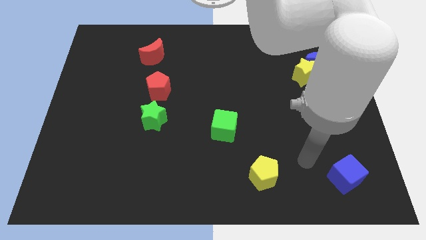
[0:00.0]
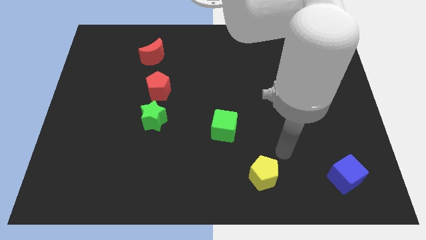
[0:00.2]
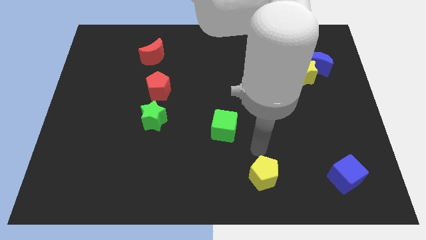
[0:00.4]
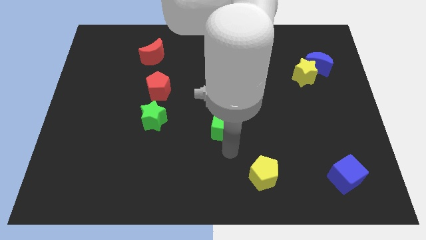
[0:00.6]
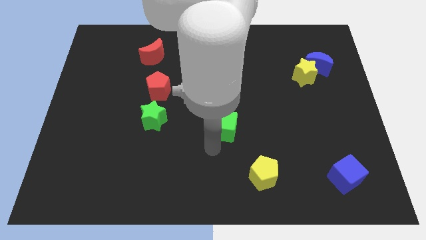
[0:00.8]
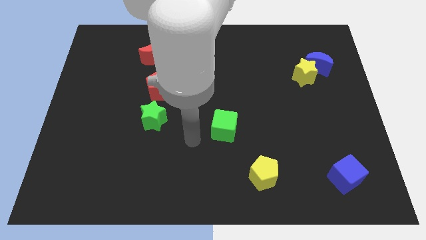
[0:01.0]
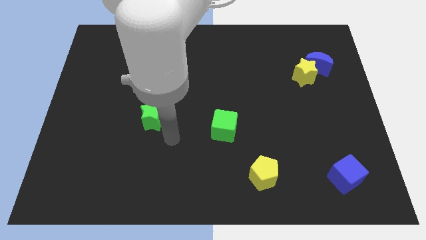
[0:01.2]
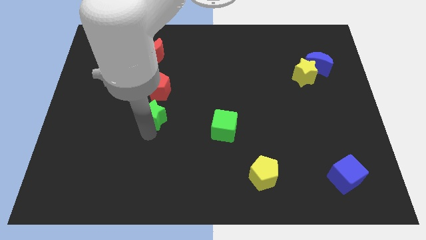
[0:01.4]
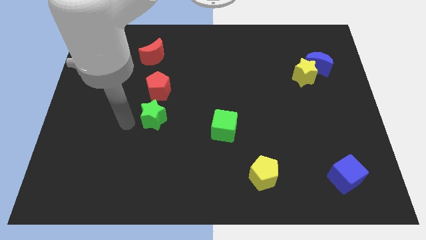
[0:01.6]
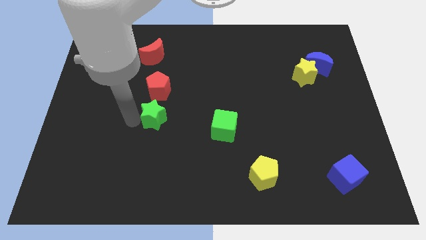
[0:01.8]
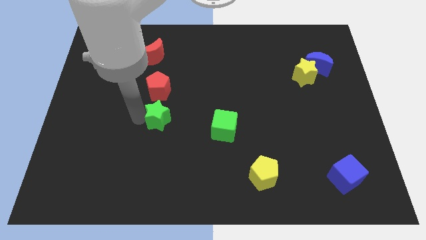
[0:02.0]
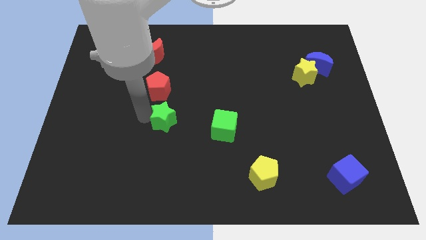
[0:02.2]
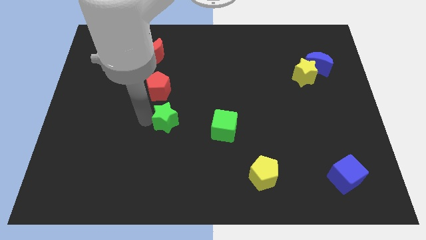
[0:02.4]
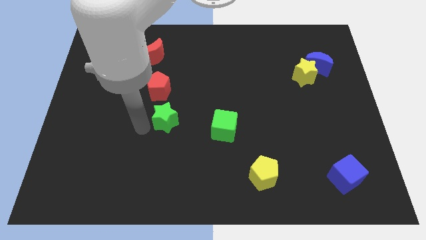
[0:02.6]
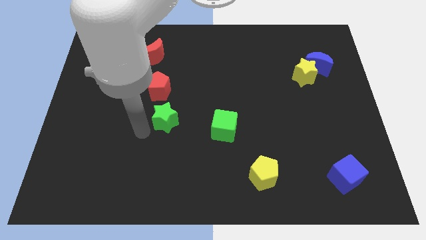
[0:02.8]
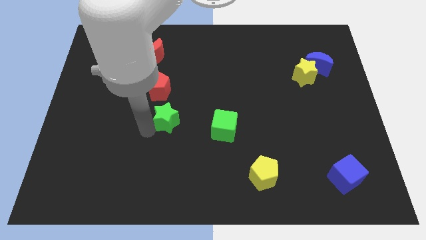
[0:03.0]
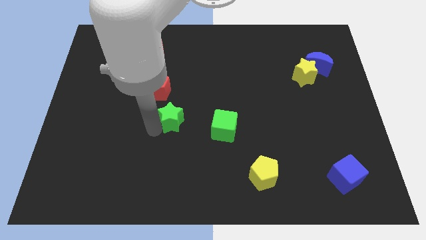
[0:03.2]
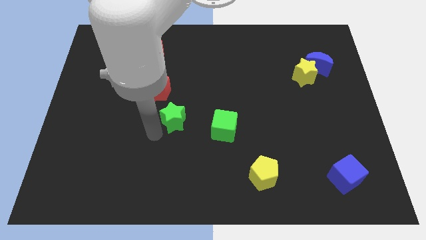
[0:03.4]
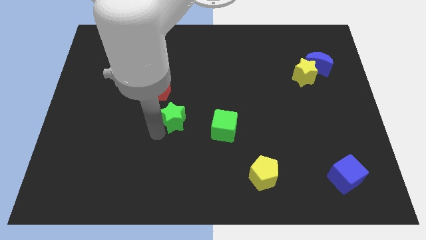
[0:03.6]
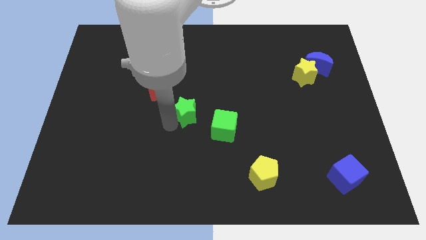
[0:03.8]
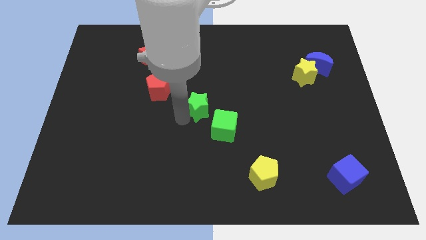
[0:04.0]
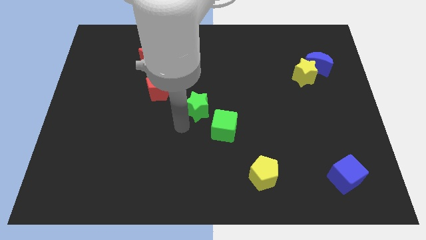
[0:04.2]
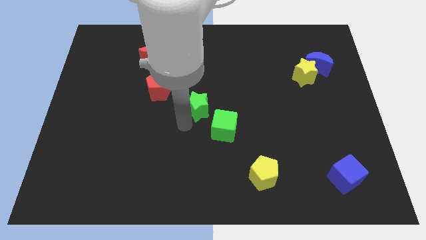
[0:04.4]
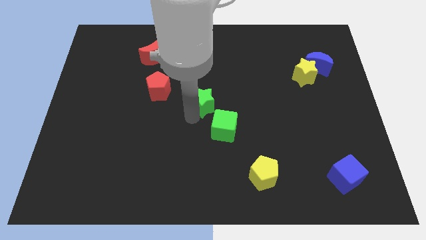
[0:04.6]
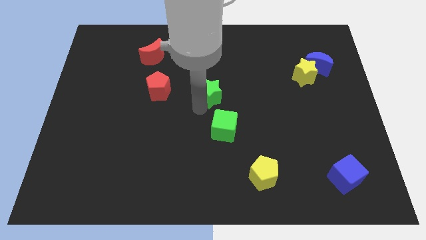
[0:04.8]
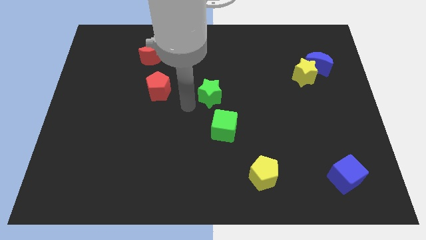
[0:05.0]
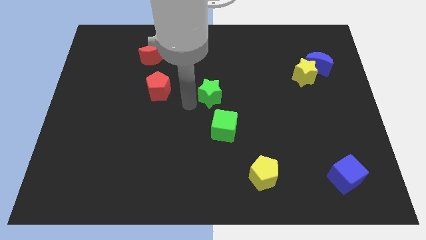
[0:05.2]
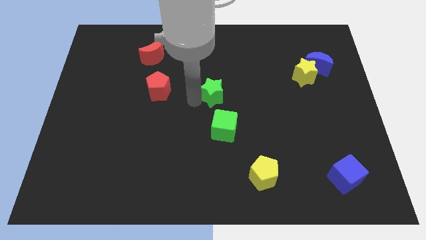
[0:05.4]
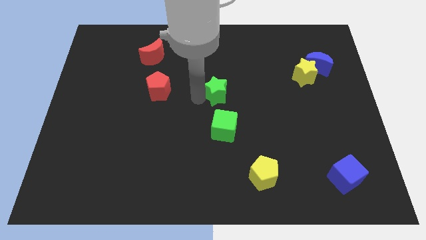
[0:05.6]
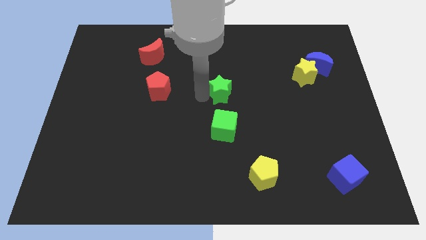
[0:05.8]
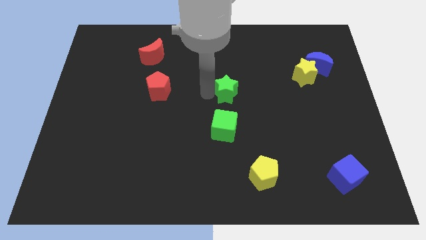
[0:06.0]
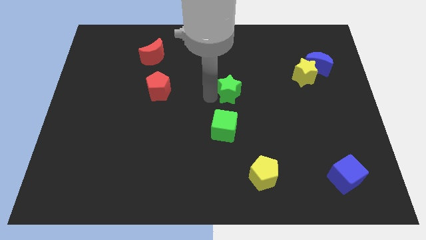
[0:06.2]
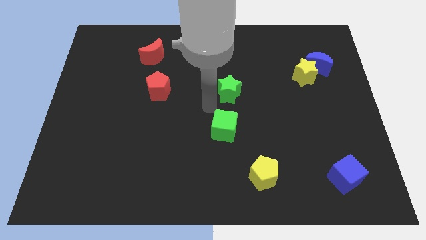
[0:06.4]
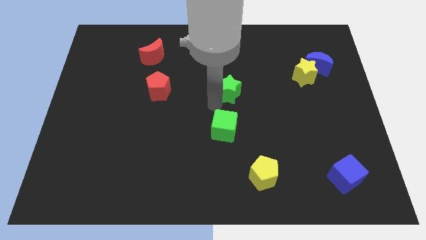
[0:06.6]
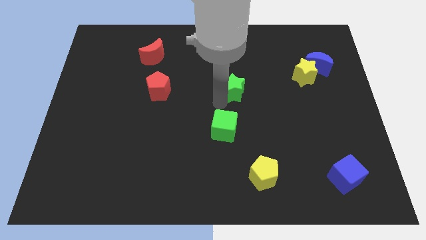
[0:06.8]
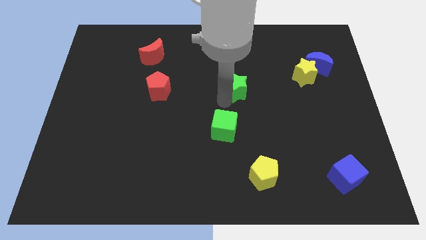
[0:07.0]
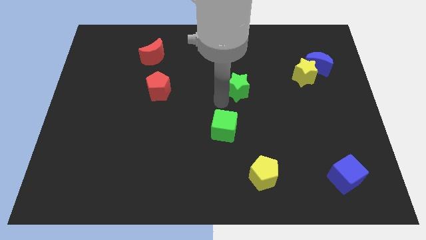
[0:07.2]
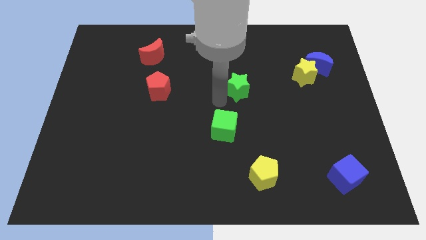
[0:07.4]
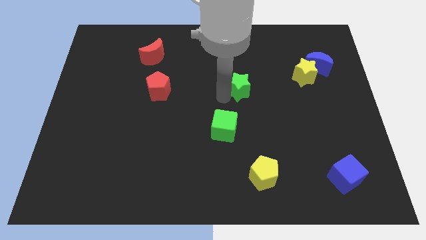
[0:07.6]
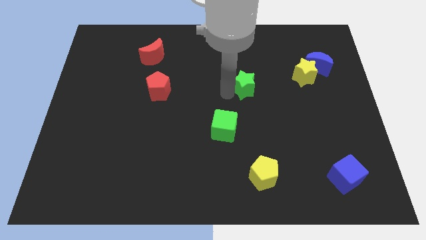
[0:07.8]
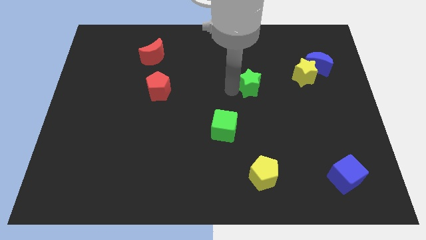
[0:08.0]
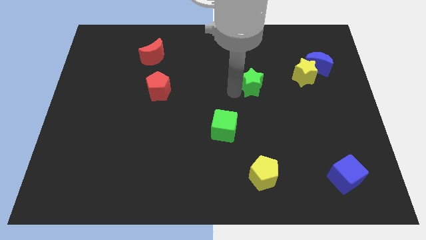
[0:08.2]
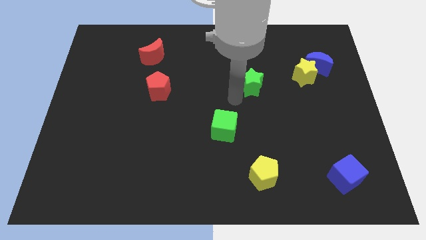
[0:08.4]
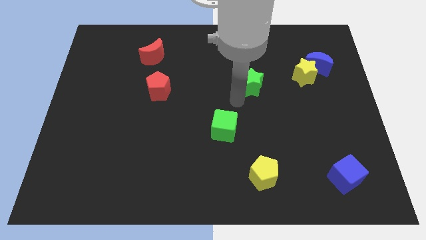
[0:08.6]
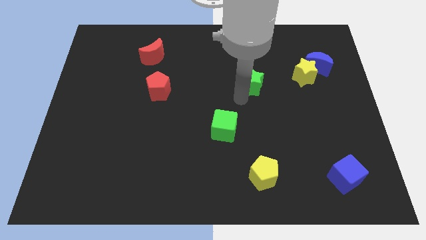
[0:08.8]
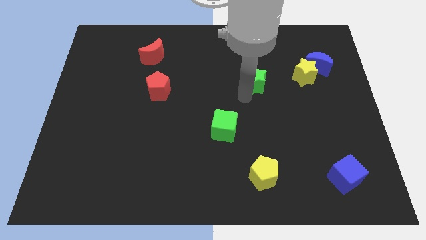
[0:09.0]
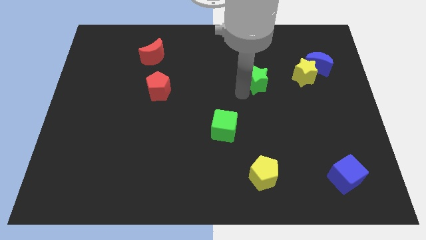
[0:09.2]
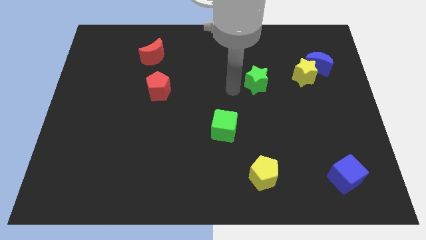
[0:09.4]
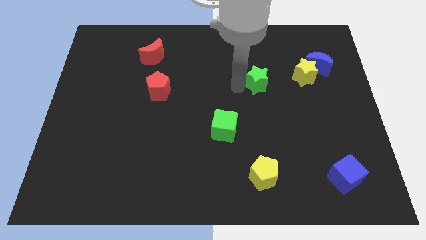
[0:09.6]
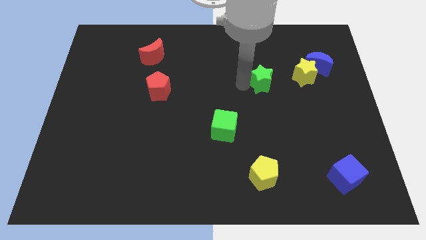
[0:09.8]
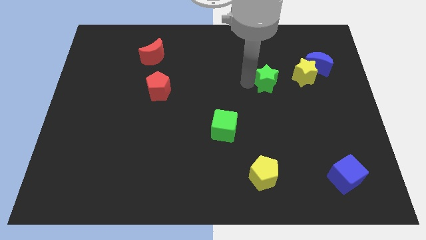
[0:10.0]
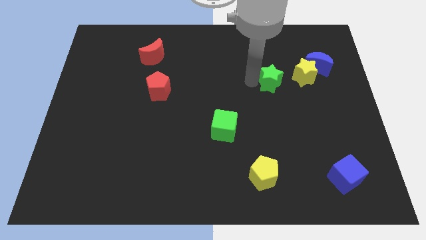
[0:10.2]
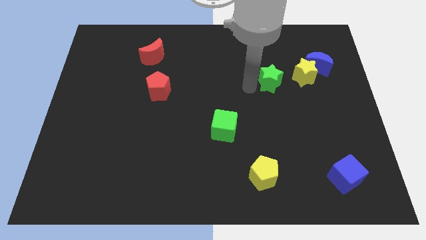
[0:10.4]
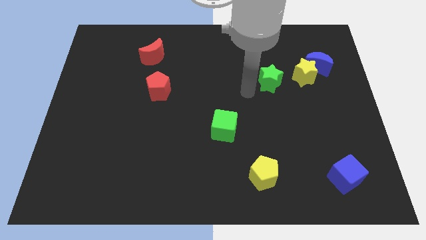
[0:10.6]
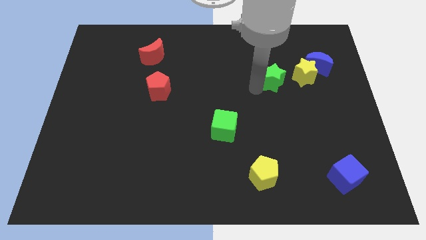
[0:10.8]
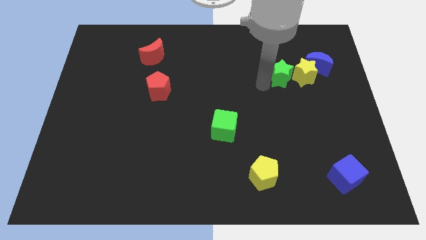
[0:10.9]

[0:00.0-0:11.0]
put the green star towards the yellow star

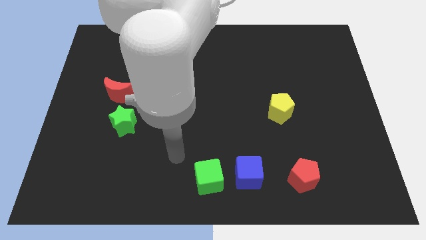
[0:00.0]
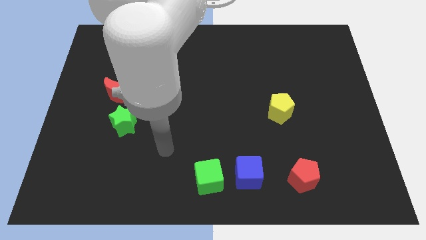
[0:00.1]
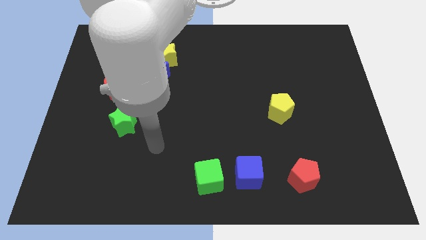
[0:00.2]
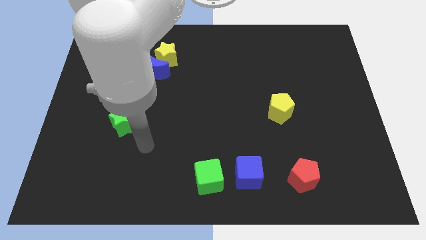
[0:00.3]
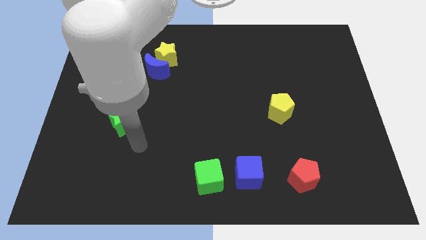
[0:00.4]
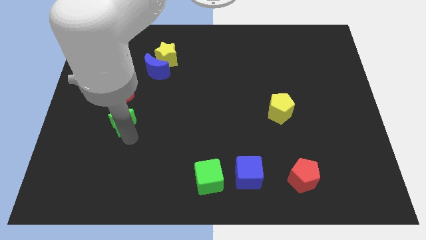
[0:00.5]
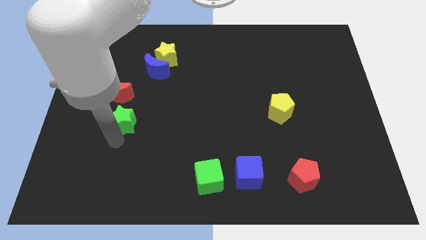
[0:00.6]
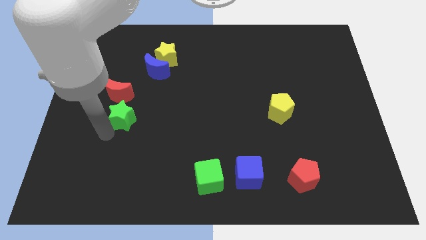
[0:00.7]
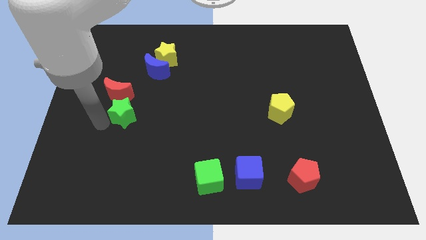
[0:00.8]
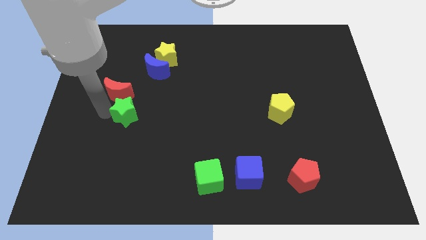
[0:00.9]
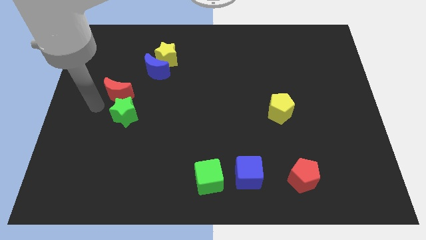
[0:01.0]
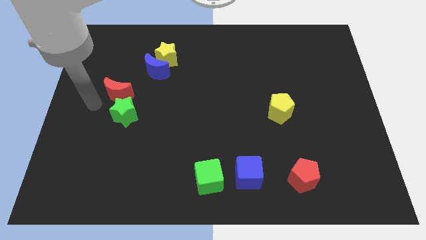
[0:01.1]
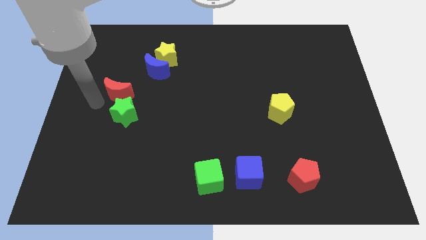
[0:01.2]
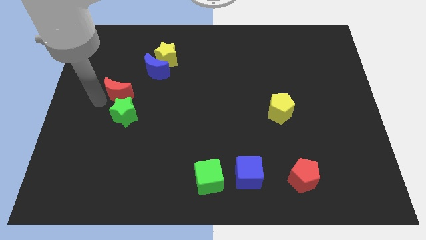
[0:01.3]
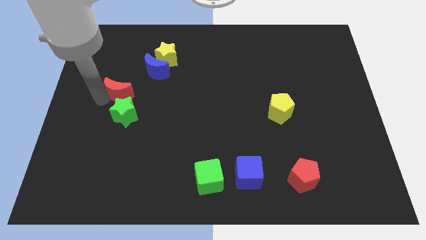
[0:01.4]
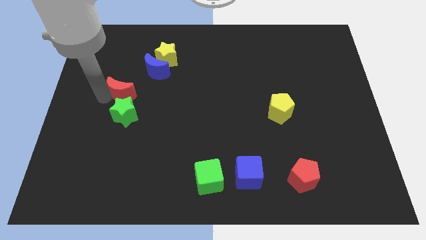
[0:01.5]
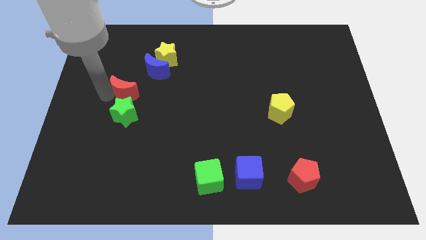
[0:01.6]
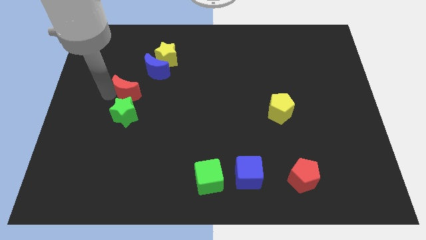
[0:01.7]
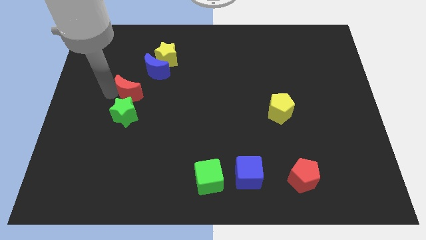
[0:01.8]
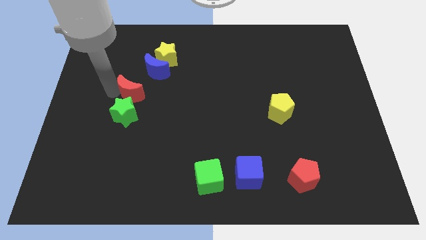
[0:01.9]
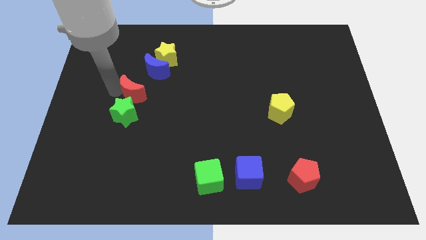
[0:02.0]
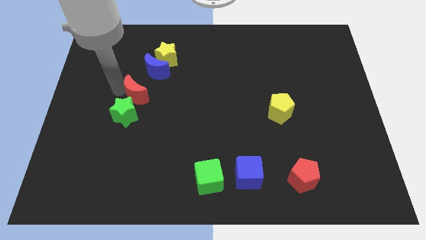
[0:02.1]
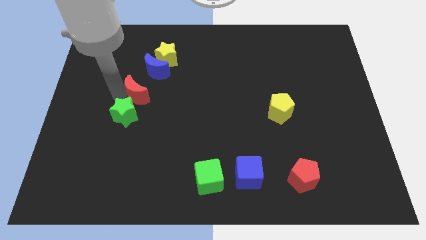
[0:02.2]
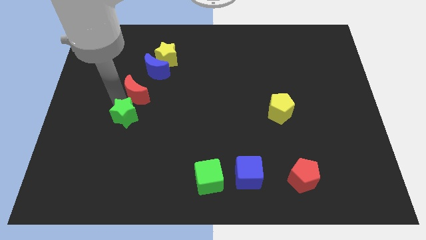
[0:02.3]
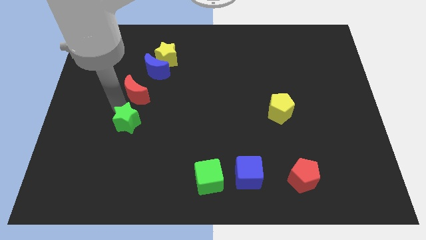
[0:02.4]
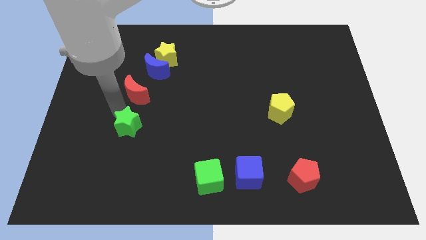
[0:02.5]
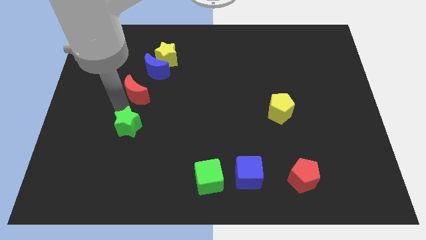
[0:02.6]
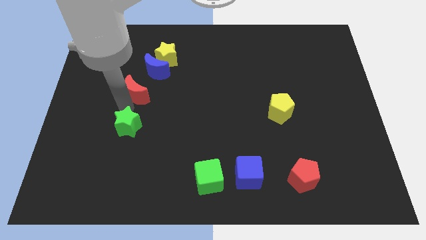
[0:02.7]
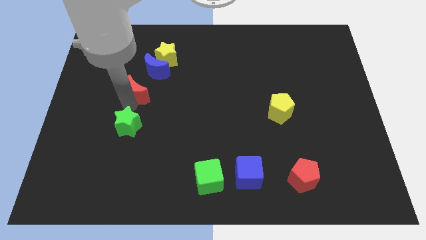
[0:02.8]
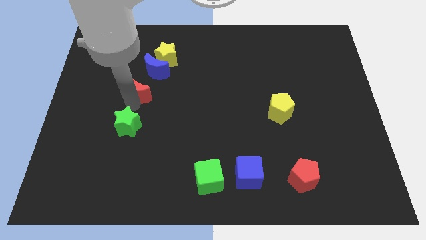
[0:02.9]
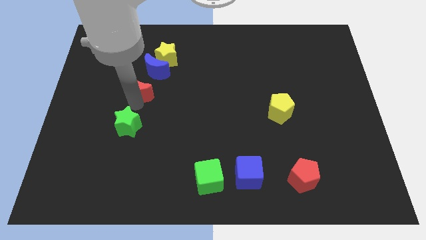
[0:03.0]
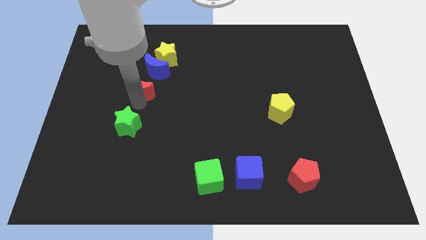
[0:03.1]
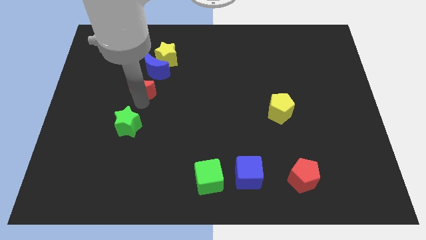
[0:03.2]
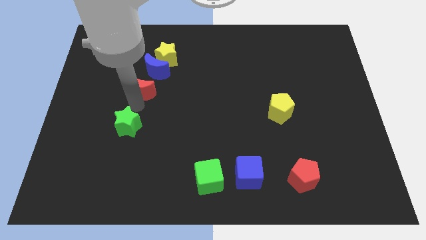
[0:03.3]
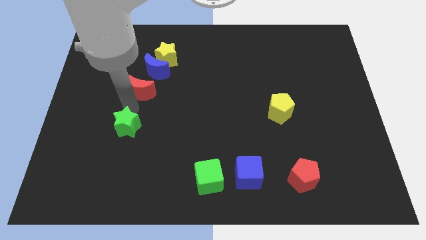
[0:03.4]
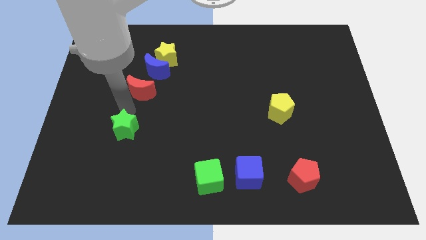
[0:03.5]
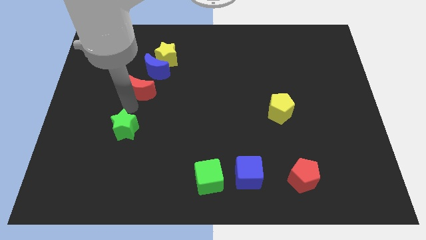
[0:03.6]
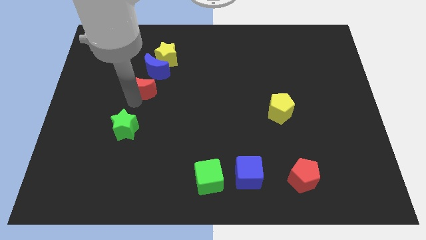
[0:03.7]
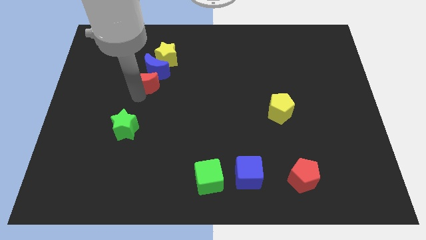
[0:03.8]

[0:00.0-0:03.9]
push the red moon next to the blue moon
